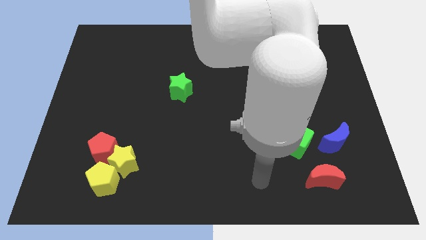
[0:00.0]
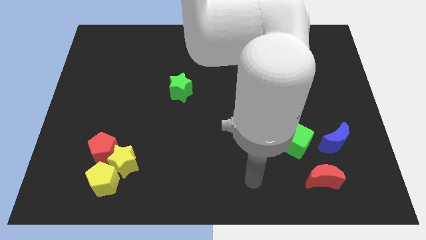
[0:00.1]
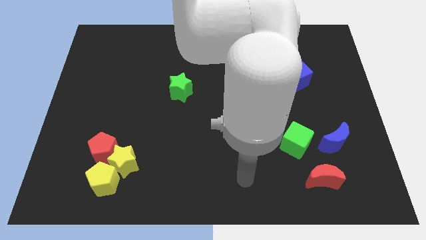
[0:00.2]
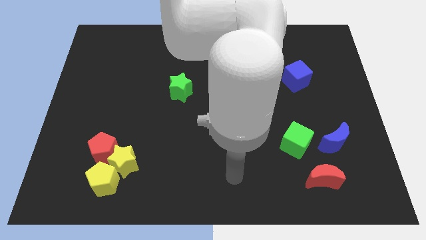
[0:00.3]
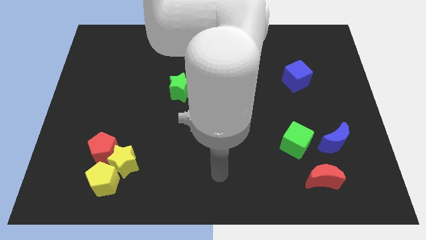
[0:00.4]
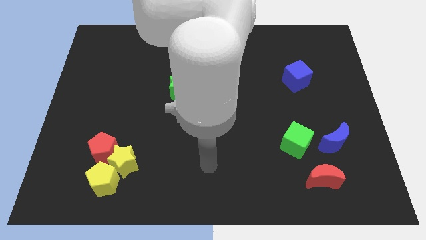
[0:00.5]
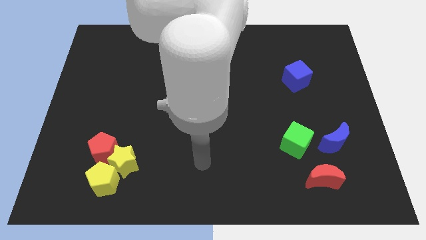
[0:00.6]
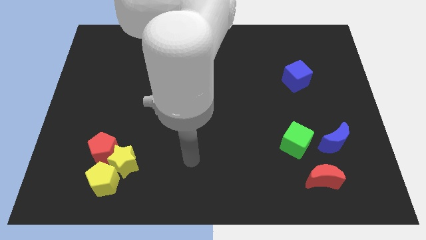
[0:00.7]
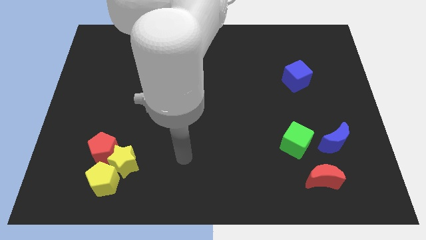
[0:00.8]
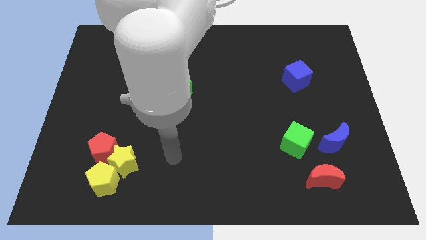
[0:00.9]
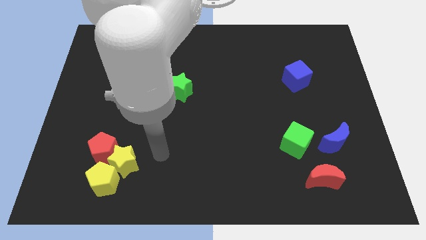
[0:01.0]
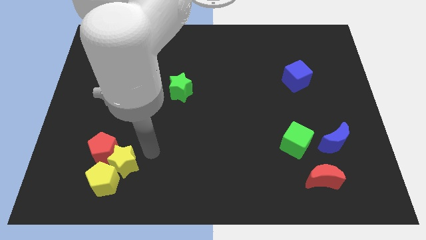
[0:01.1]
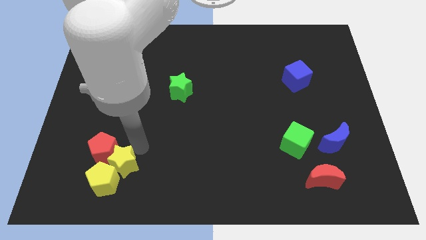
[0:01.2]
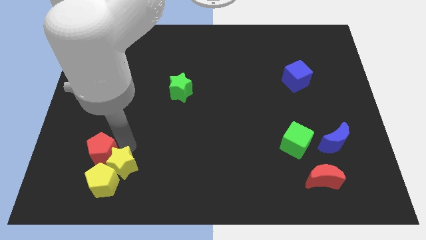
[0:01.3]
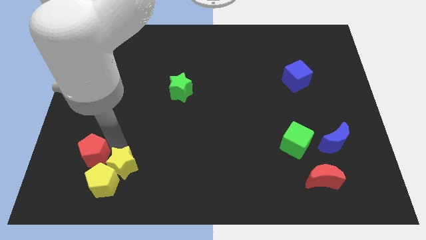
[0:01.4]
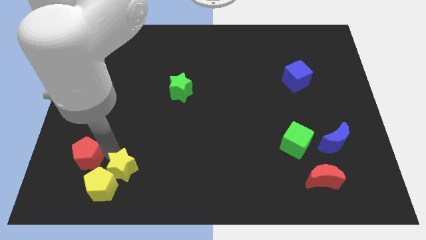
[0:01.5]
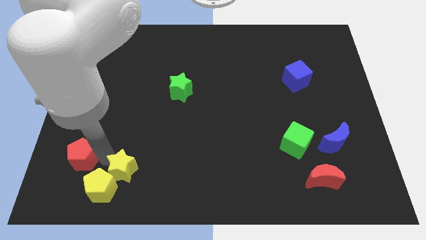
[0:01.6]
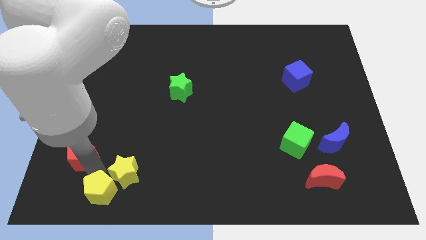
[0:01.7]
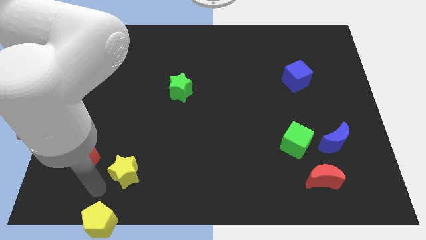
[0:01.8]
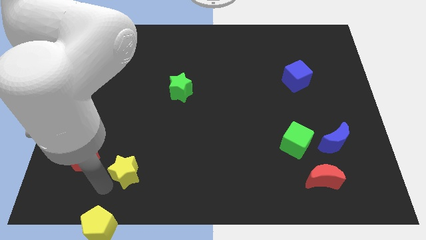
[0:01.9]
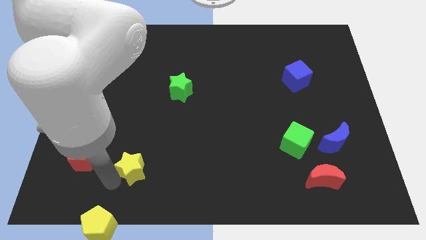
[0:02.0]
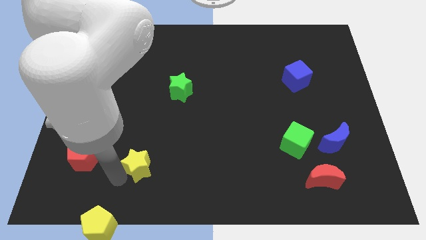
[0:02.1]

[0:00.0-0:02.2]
move the yellow star away from the red pentagon and yellow pentagon

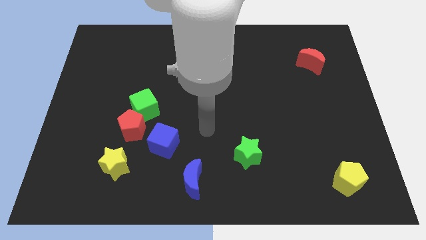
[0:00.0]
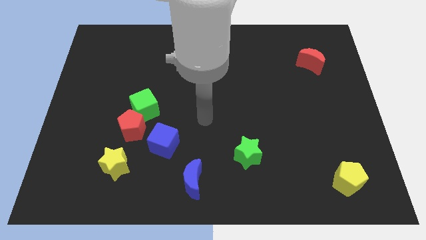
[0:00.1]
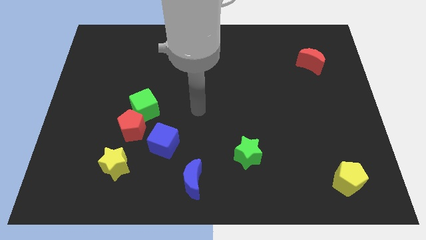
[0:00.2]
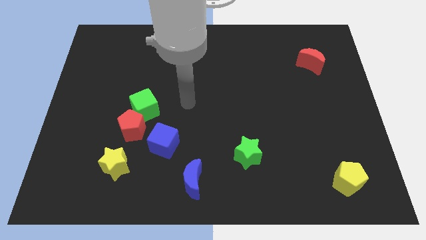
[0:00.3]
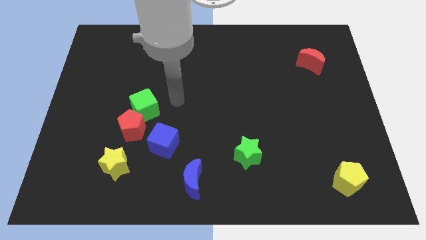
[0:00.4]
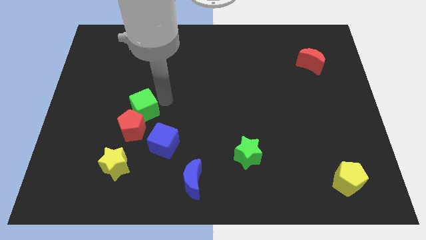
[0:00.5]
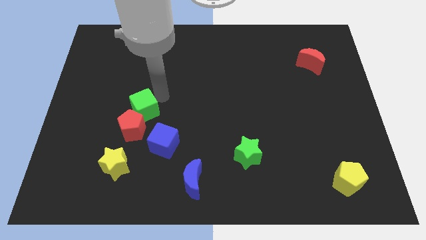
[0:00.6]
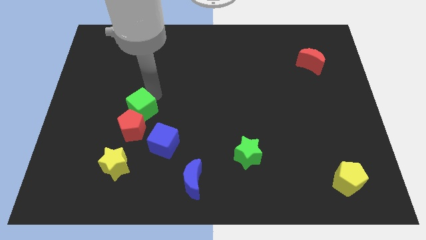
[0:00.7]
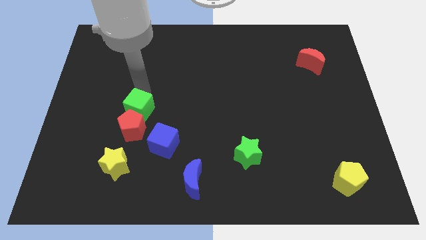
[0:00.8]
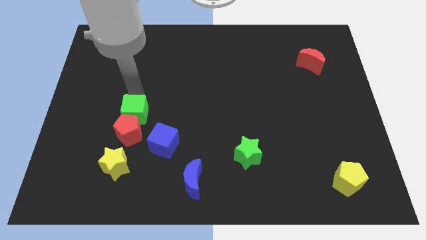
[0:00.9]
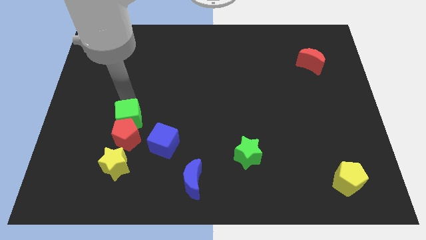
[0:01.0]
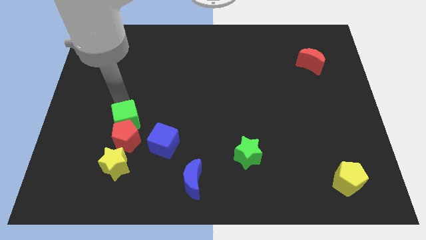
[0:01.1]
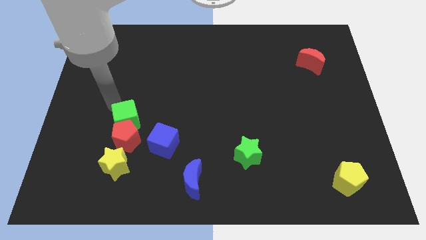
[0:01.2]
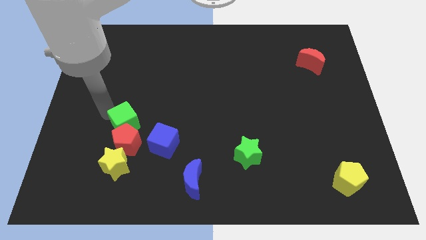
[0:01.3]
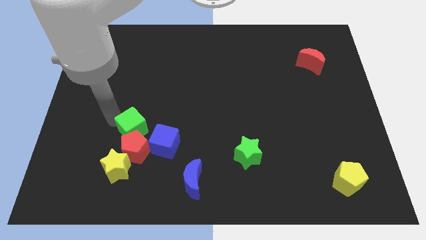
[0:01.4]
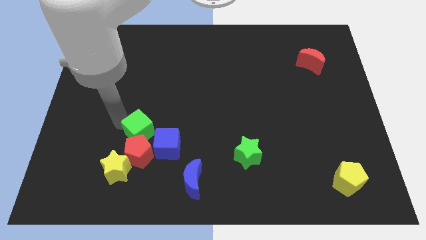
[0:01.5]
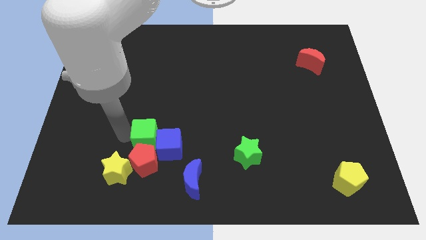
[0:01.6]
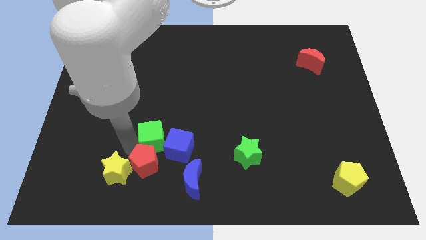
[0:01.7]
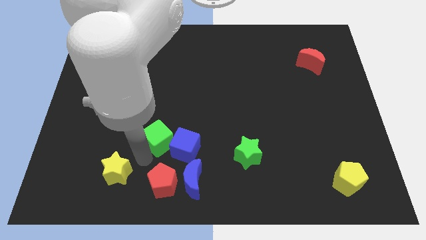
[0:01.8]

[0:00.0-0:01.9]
separate the green cube from the red pentagon

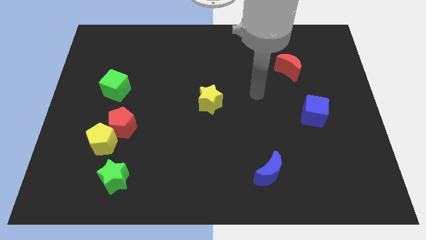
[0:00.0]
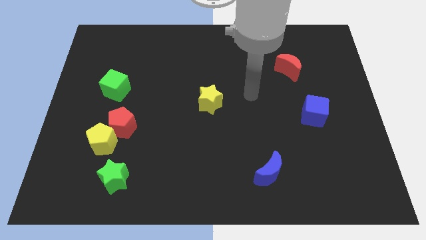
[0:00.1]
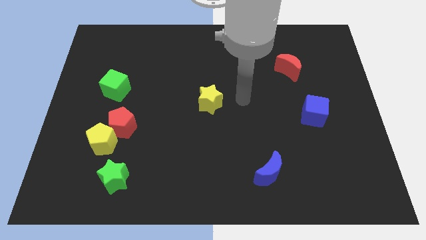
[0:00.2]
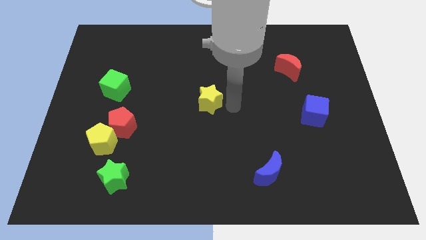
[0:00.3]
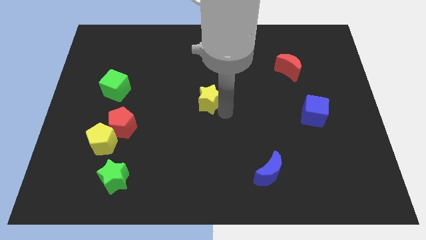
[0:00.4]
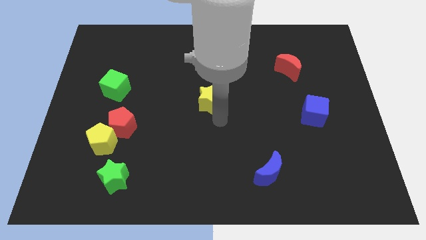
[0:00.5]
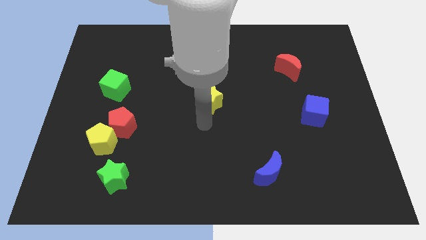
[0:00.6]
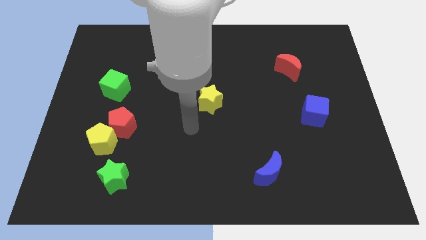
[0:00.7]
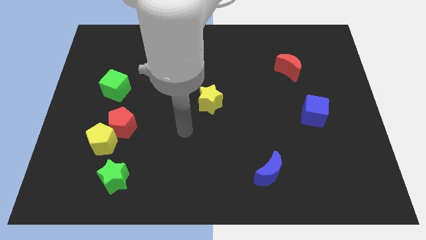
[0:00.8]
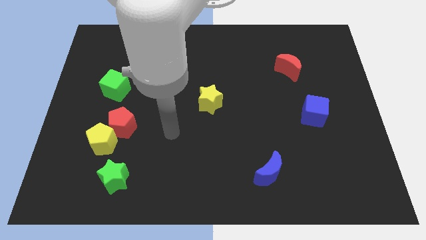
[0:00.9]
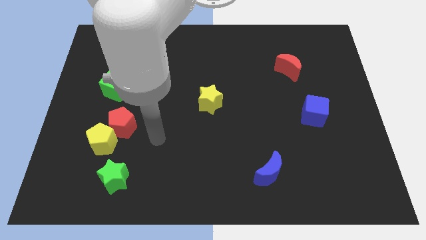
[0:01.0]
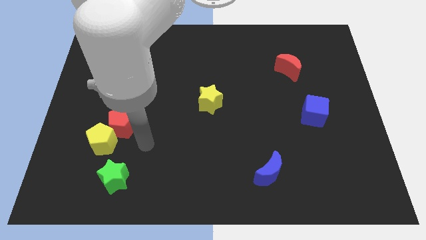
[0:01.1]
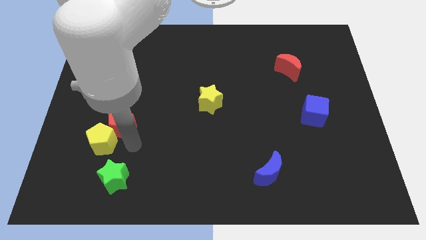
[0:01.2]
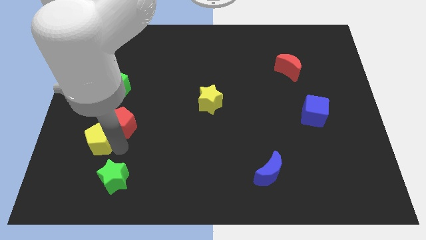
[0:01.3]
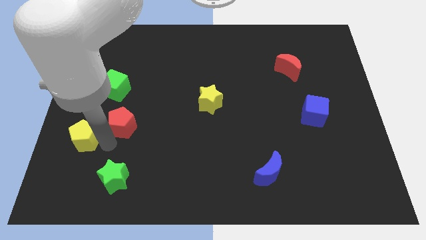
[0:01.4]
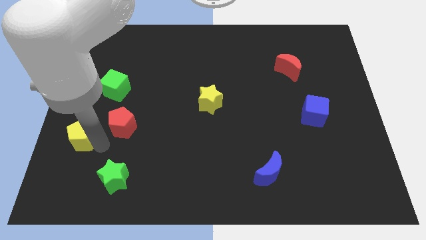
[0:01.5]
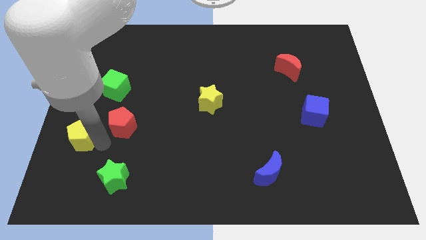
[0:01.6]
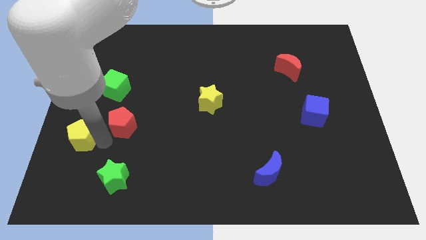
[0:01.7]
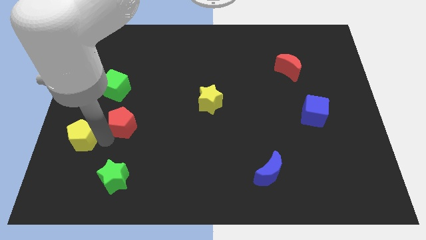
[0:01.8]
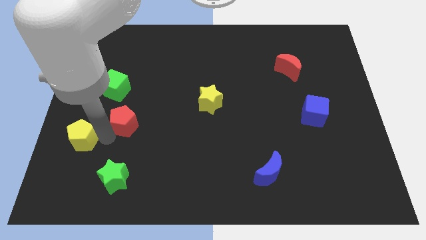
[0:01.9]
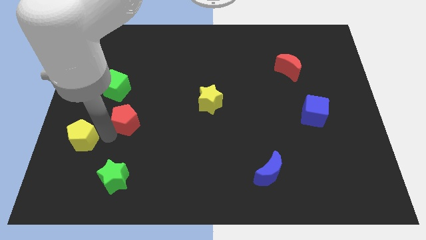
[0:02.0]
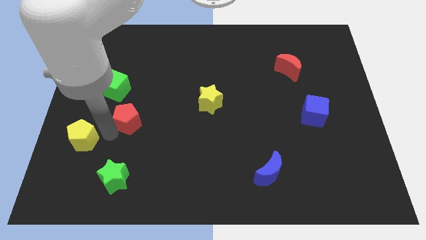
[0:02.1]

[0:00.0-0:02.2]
separate the red pentagon from the yellow pentagon

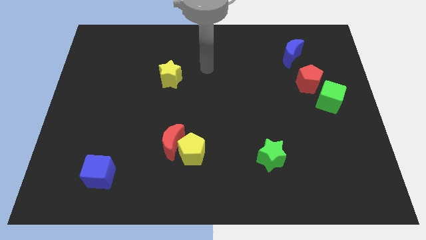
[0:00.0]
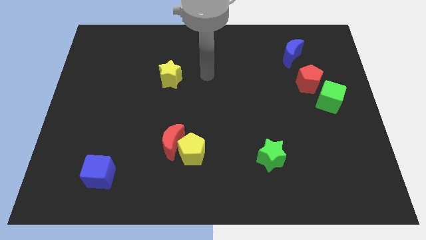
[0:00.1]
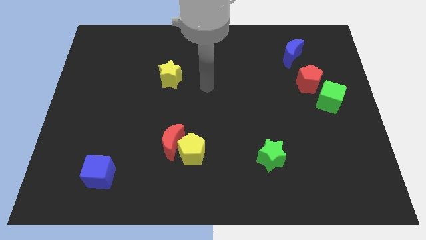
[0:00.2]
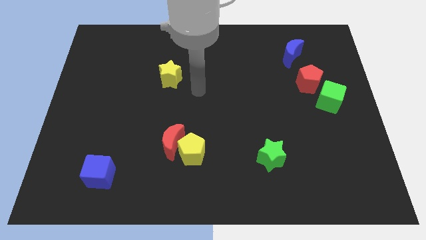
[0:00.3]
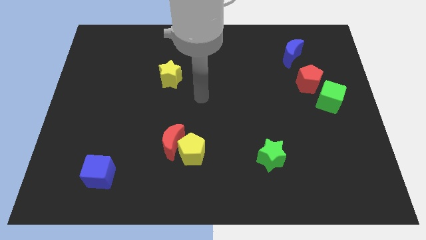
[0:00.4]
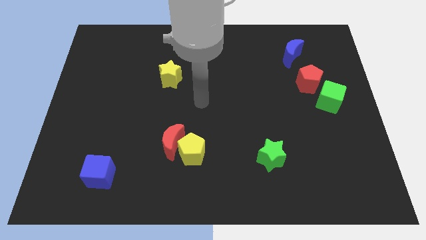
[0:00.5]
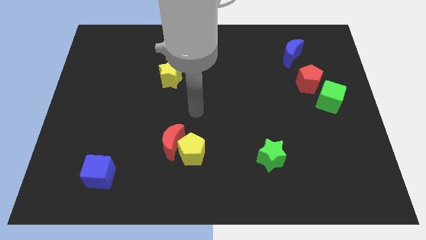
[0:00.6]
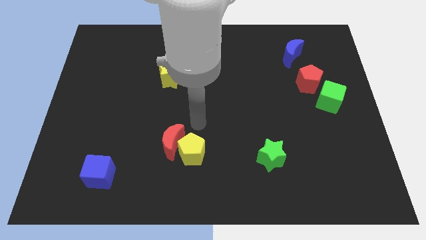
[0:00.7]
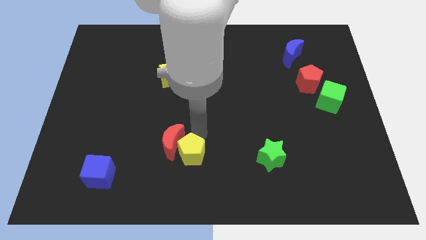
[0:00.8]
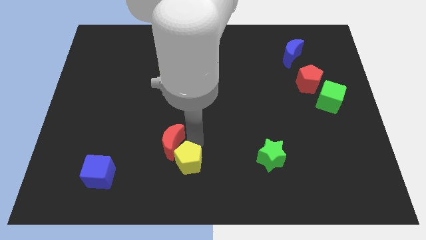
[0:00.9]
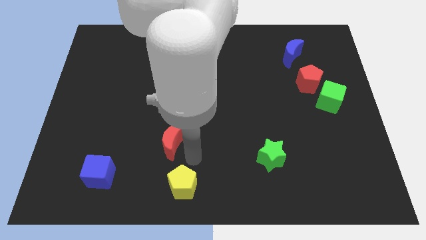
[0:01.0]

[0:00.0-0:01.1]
pull the red moon apart from the yellow pentagon

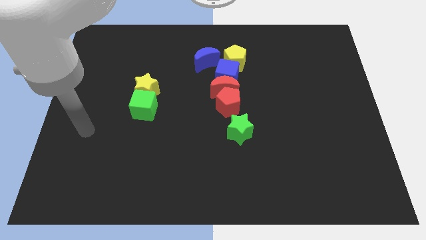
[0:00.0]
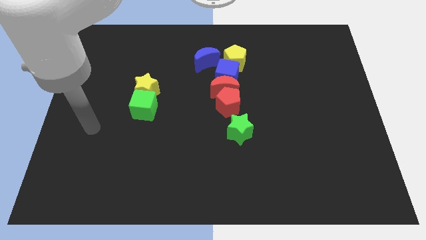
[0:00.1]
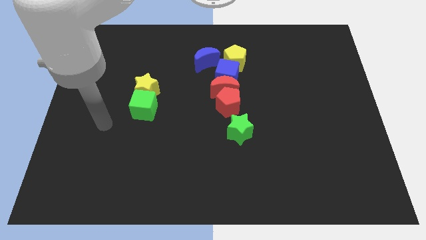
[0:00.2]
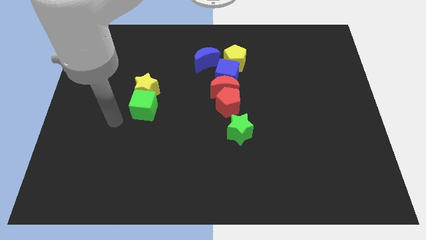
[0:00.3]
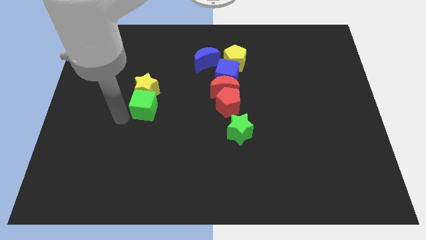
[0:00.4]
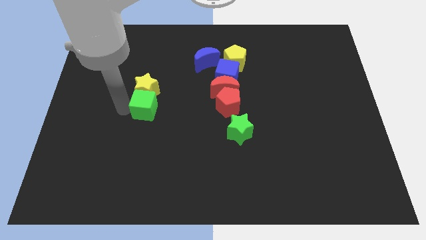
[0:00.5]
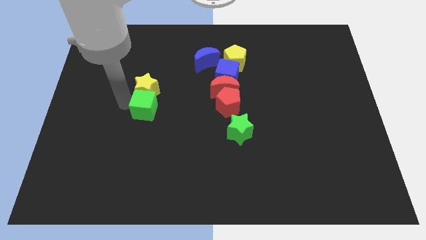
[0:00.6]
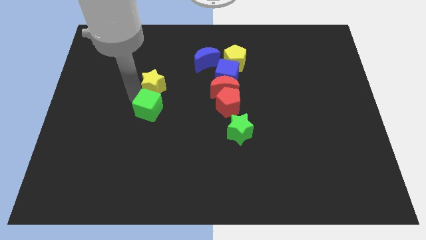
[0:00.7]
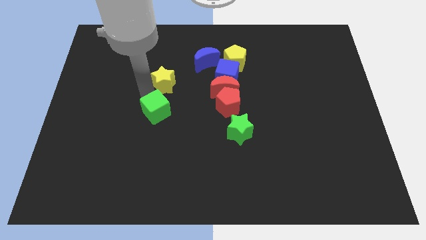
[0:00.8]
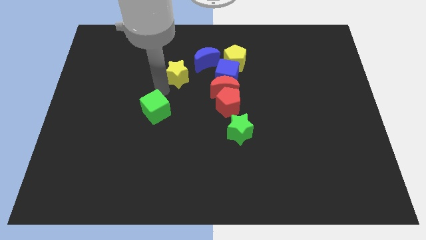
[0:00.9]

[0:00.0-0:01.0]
move the green cube away from the yellow star

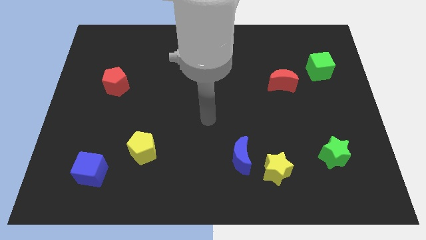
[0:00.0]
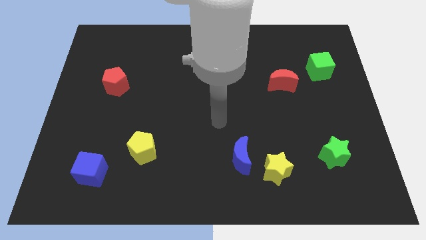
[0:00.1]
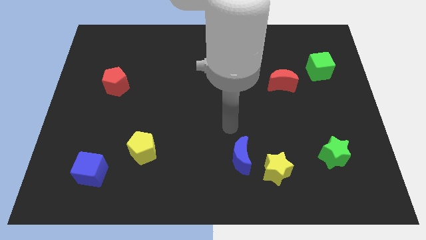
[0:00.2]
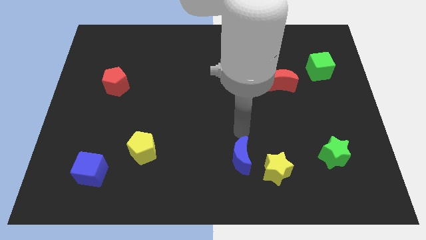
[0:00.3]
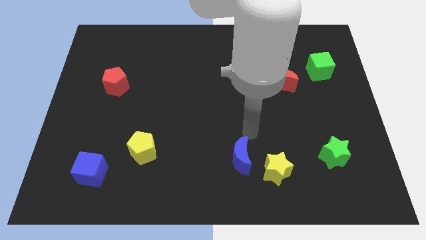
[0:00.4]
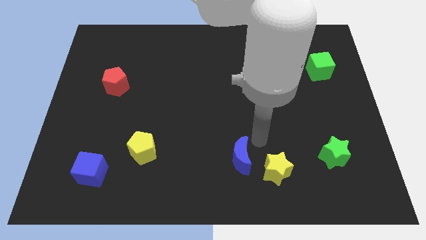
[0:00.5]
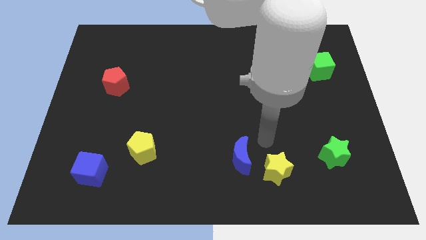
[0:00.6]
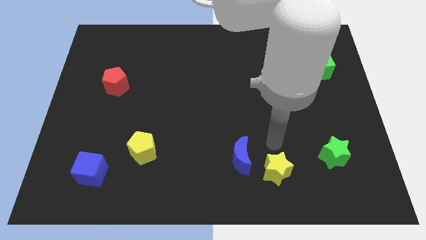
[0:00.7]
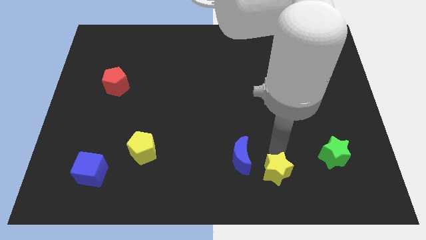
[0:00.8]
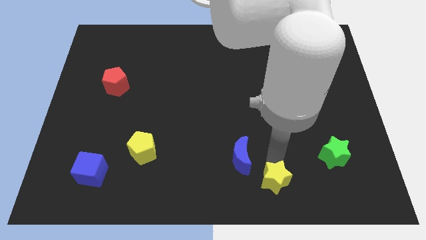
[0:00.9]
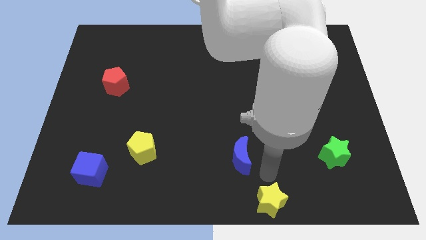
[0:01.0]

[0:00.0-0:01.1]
pull the blue moon apart from the yellow star
